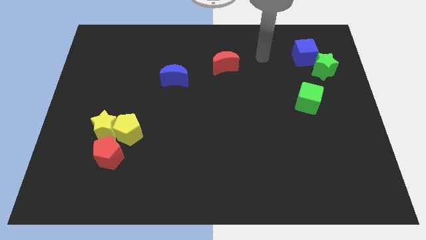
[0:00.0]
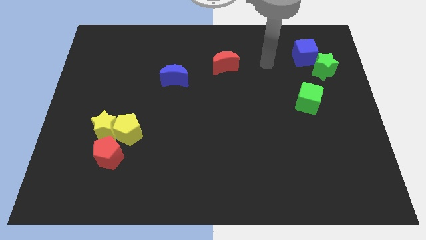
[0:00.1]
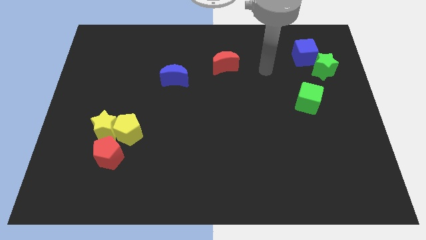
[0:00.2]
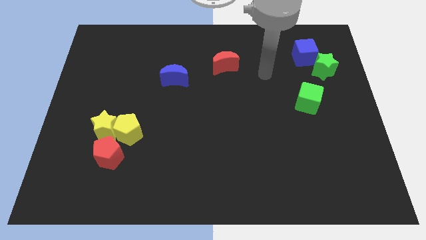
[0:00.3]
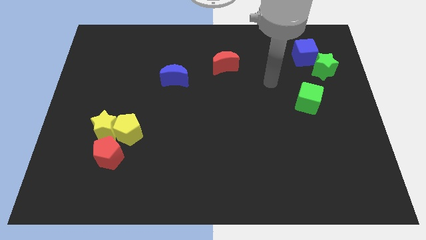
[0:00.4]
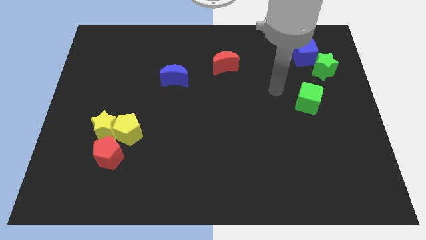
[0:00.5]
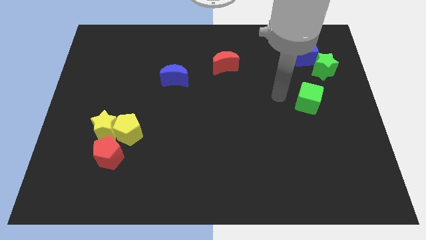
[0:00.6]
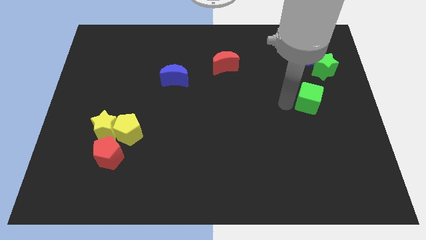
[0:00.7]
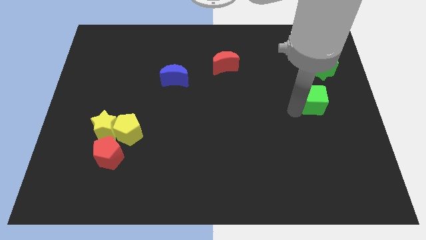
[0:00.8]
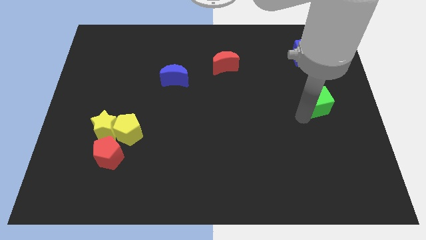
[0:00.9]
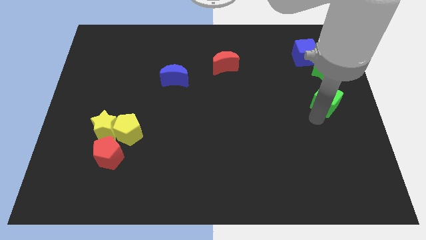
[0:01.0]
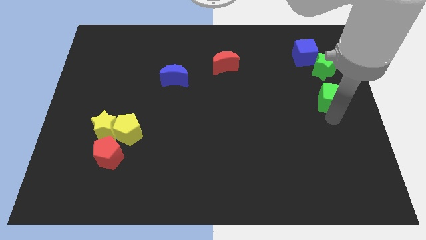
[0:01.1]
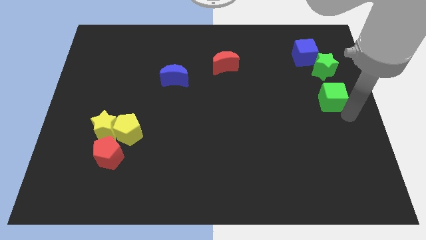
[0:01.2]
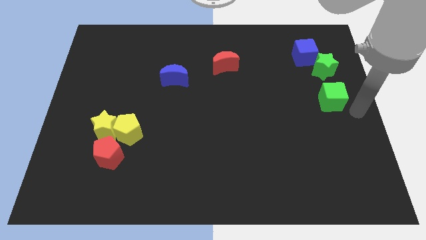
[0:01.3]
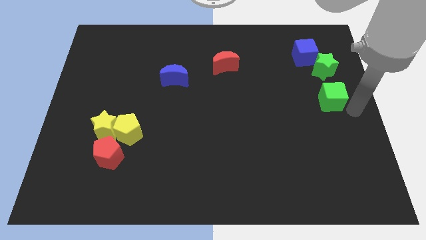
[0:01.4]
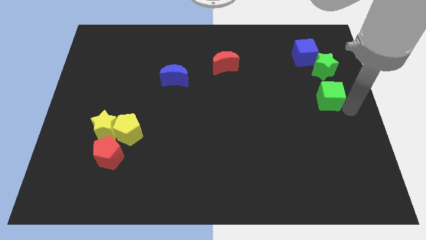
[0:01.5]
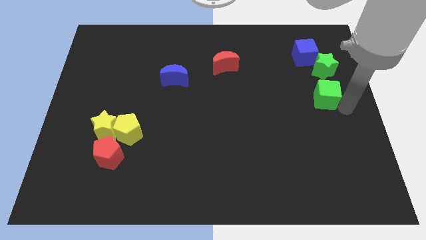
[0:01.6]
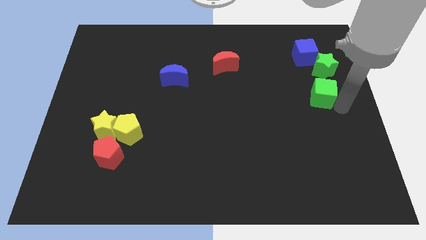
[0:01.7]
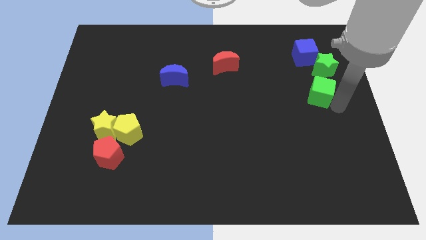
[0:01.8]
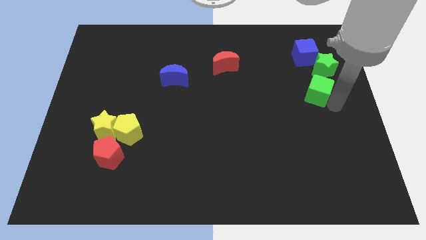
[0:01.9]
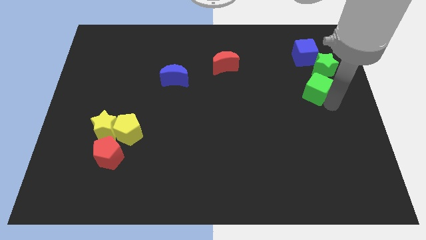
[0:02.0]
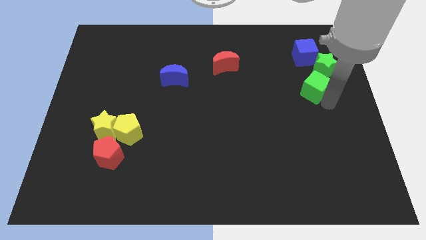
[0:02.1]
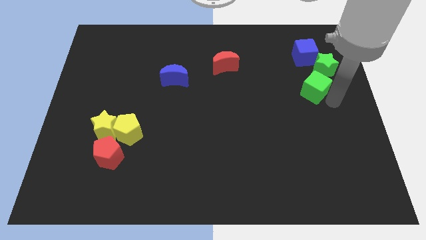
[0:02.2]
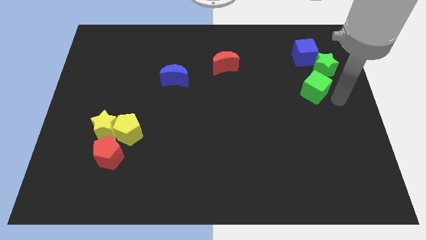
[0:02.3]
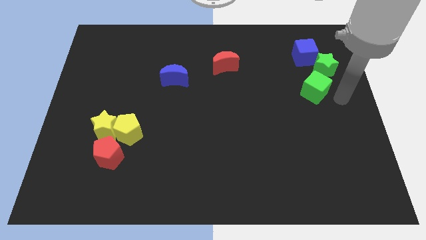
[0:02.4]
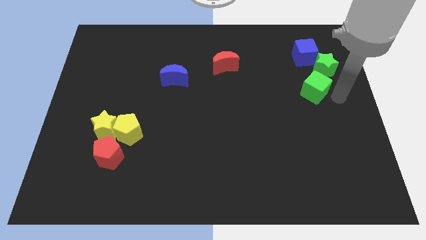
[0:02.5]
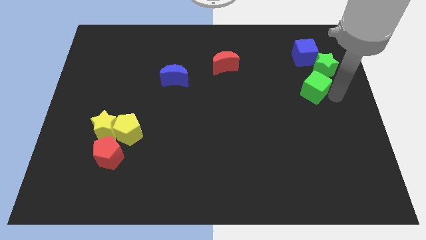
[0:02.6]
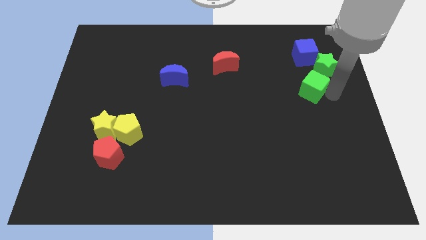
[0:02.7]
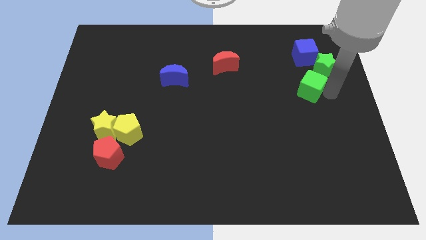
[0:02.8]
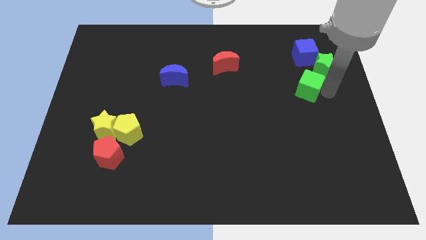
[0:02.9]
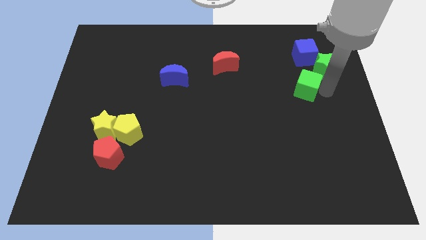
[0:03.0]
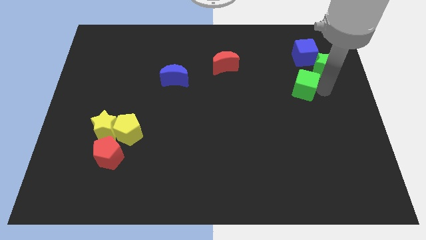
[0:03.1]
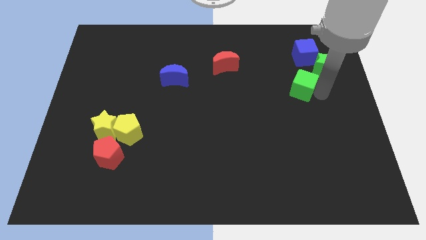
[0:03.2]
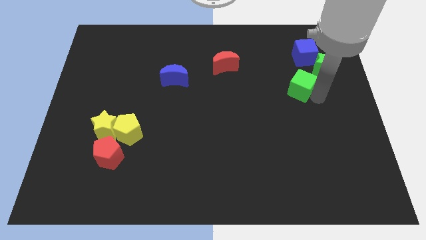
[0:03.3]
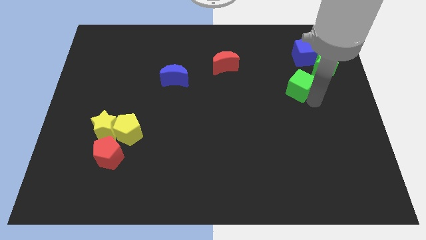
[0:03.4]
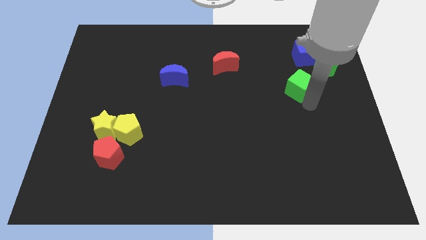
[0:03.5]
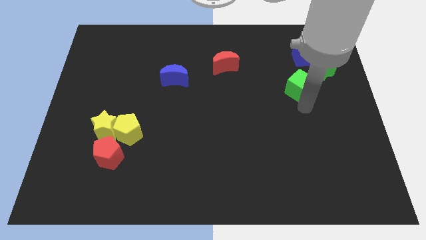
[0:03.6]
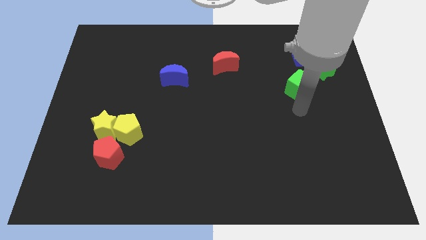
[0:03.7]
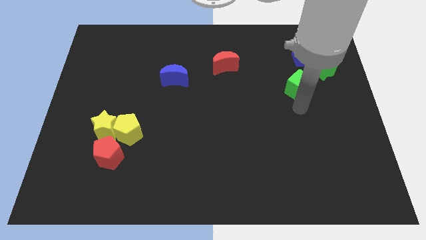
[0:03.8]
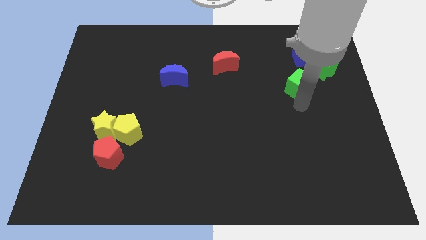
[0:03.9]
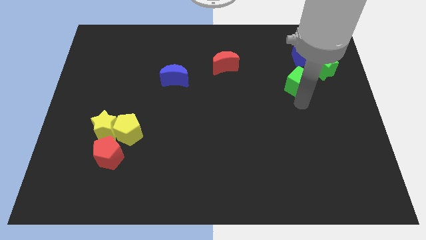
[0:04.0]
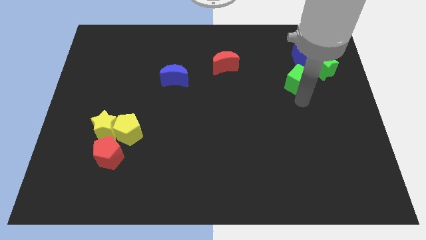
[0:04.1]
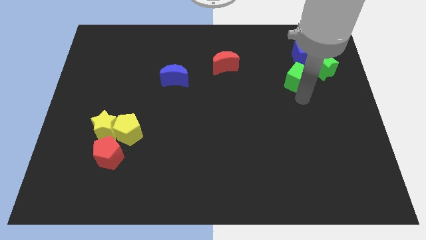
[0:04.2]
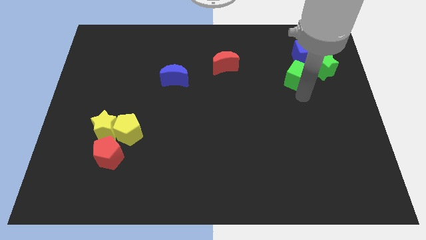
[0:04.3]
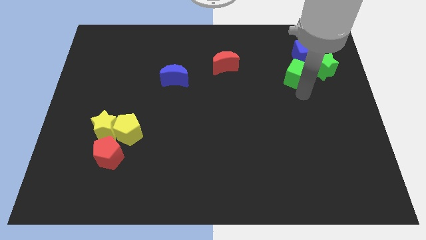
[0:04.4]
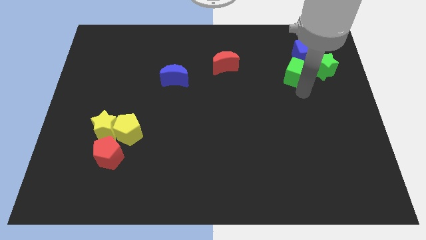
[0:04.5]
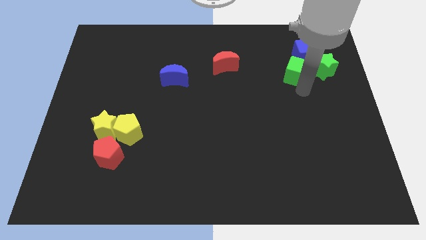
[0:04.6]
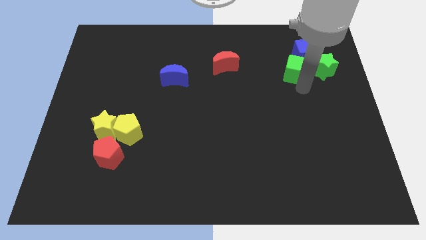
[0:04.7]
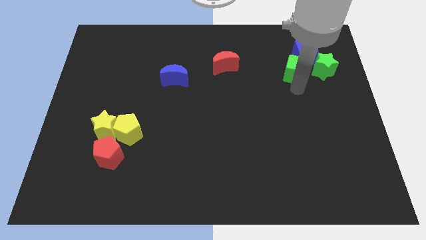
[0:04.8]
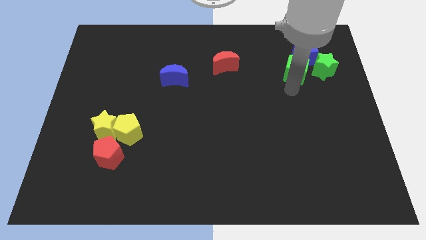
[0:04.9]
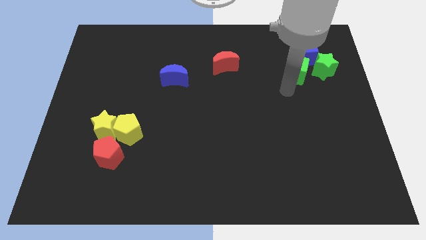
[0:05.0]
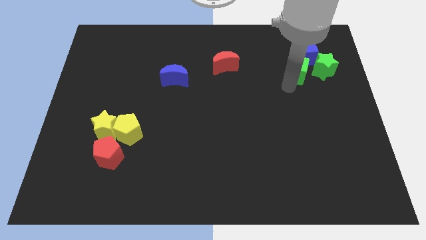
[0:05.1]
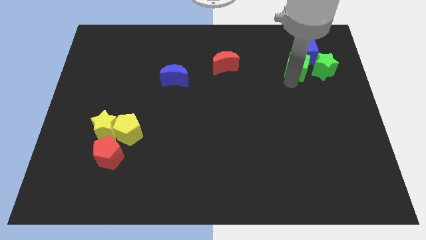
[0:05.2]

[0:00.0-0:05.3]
put the green cube towards the blue cube
